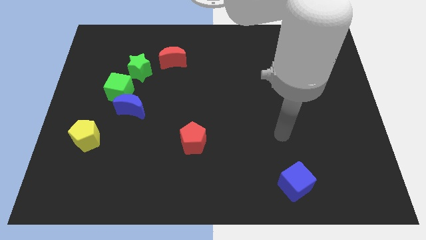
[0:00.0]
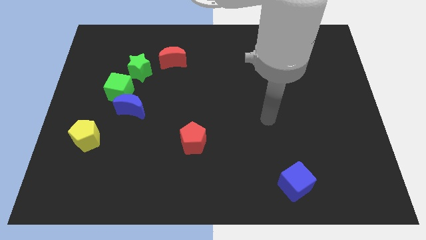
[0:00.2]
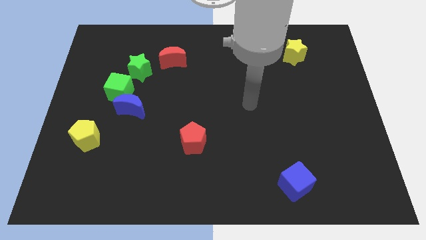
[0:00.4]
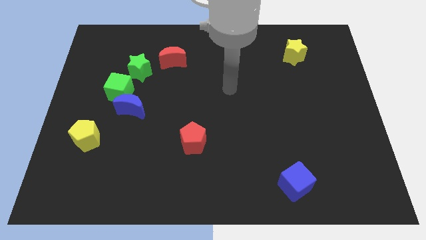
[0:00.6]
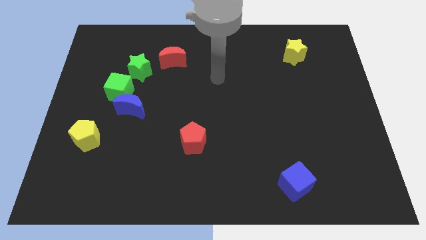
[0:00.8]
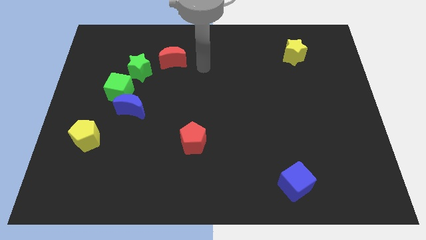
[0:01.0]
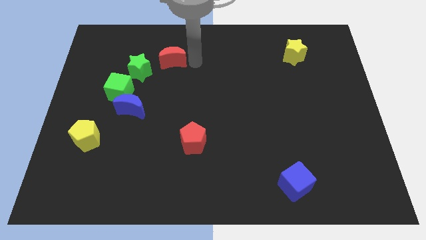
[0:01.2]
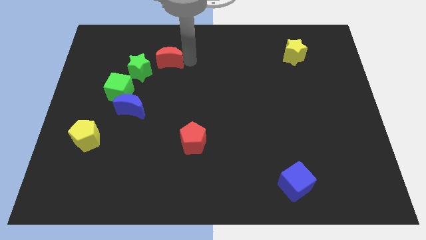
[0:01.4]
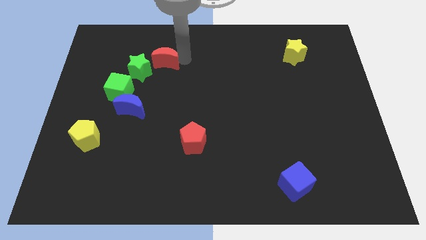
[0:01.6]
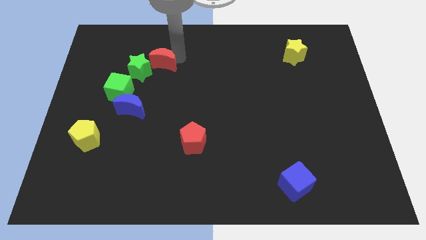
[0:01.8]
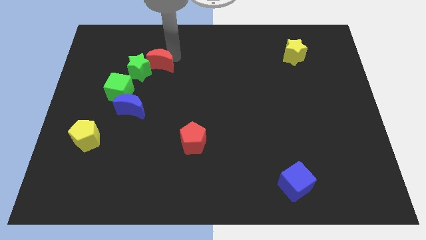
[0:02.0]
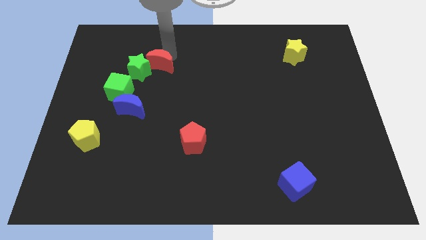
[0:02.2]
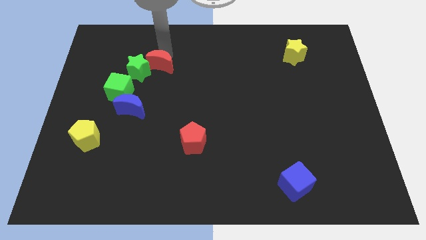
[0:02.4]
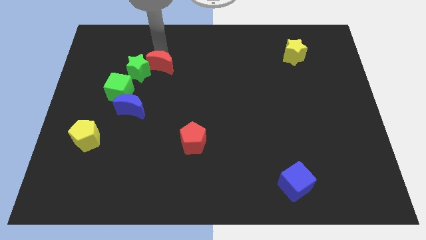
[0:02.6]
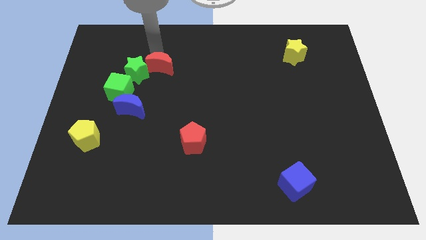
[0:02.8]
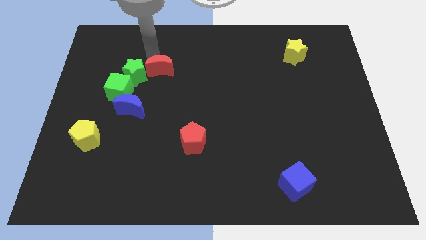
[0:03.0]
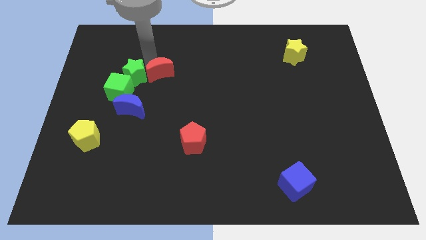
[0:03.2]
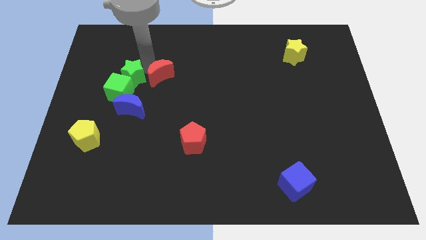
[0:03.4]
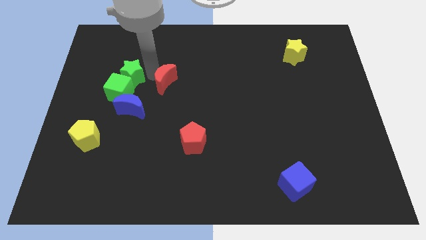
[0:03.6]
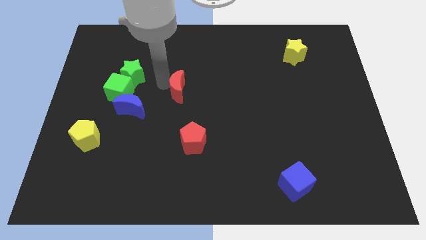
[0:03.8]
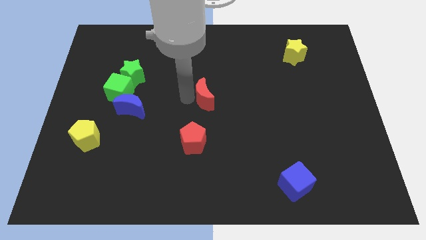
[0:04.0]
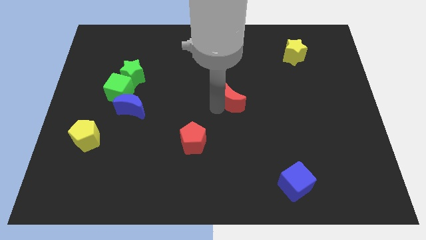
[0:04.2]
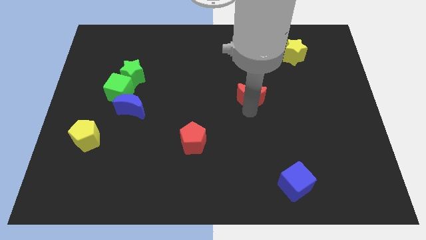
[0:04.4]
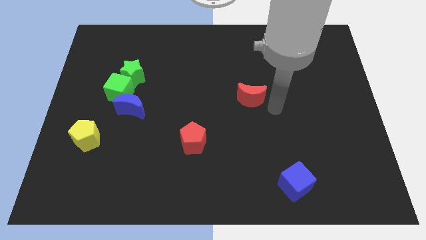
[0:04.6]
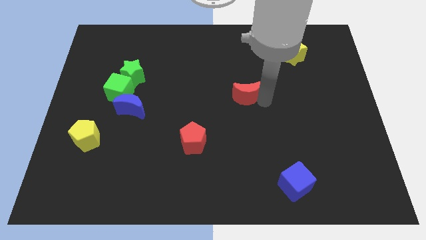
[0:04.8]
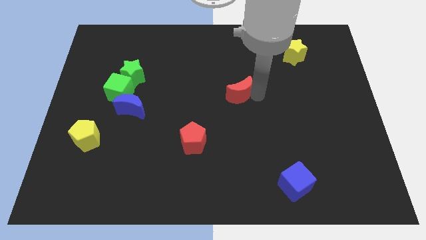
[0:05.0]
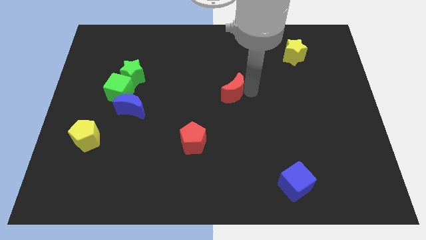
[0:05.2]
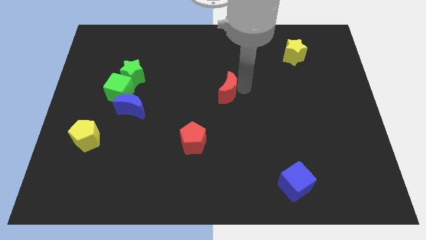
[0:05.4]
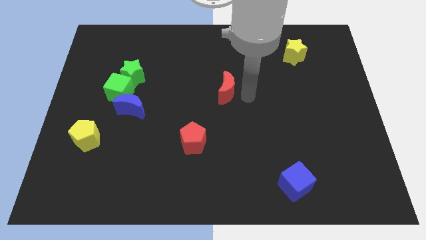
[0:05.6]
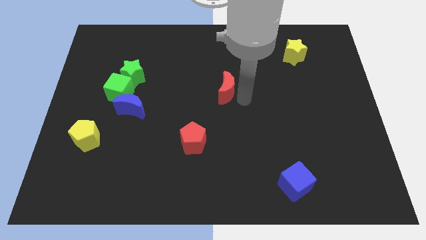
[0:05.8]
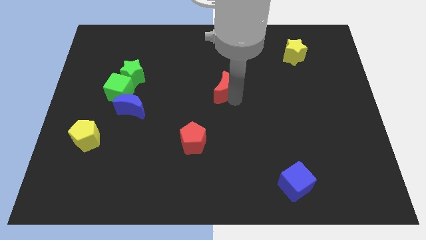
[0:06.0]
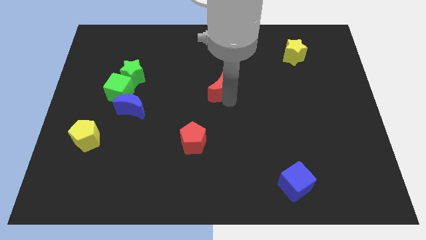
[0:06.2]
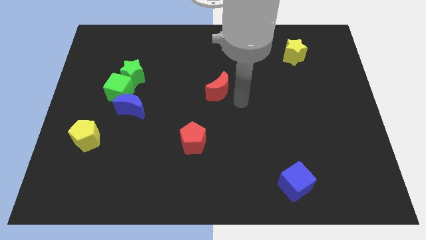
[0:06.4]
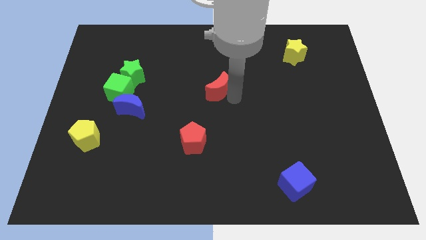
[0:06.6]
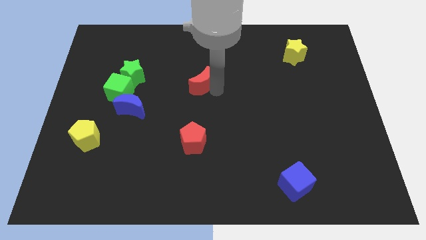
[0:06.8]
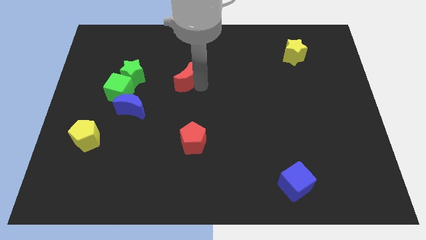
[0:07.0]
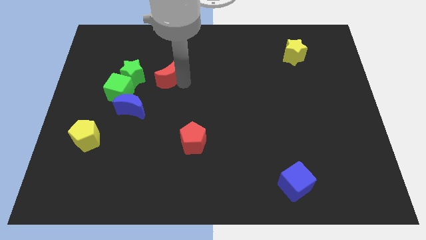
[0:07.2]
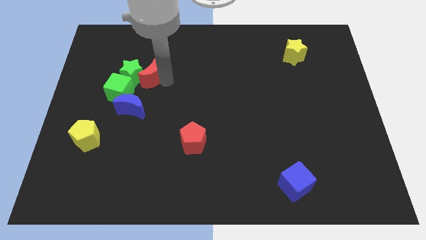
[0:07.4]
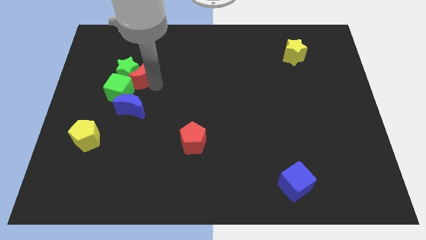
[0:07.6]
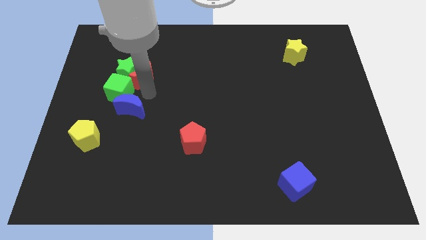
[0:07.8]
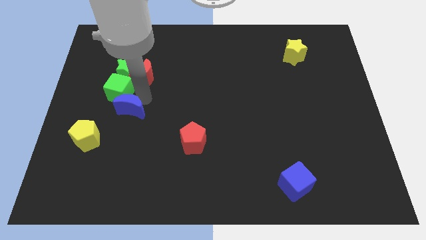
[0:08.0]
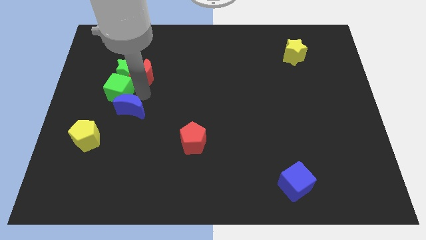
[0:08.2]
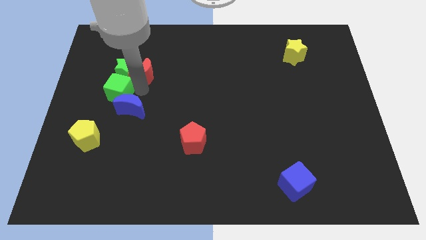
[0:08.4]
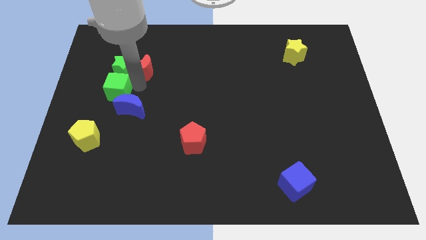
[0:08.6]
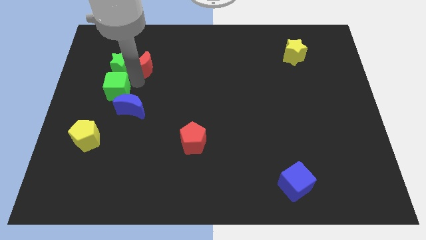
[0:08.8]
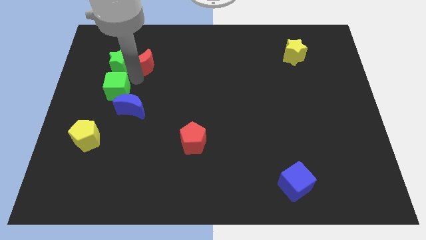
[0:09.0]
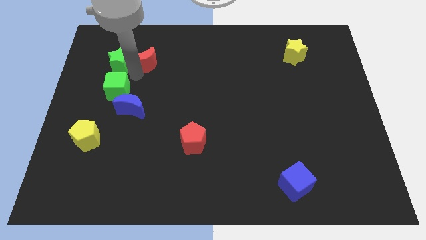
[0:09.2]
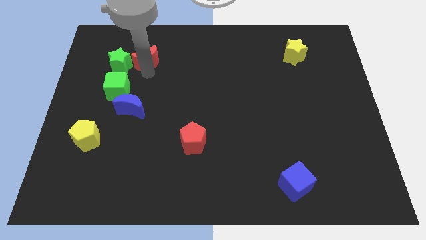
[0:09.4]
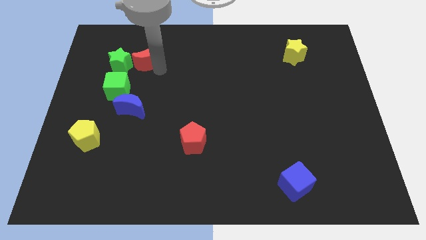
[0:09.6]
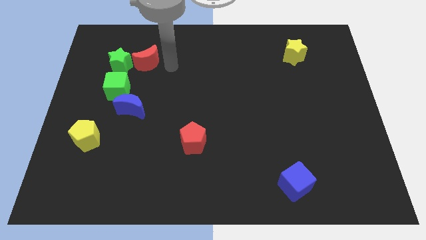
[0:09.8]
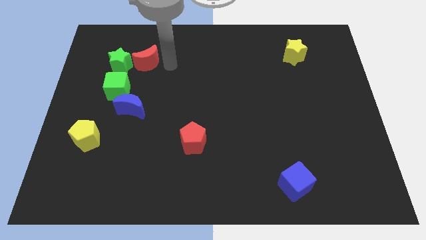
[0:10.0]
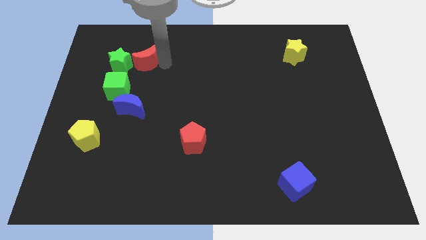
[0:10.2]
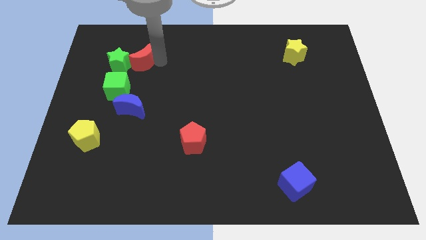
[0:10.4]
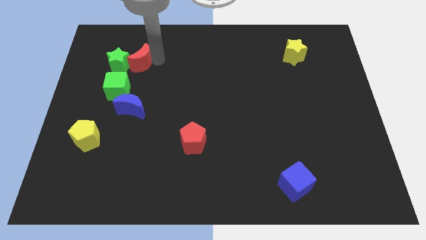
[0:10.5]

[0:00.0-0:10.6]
push the red moon to the top of the green cube

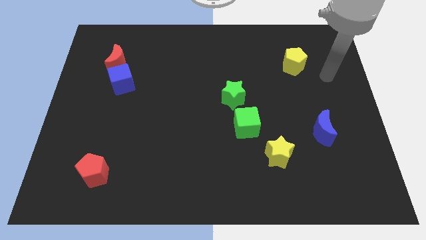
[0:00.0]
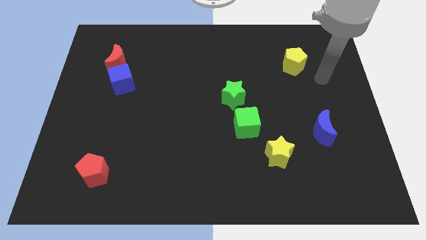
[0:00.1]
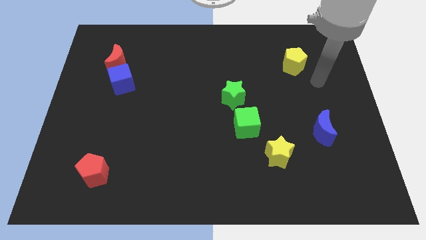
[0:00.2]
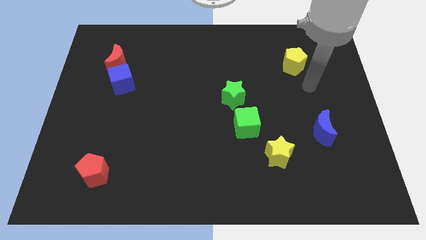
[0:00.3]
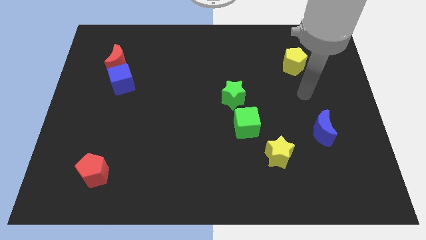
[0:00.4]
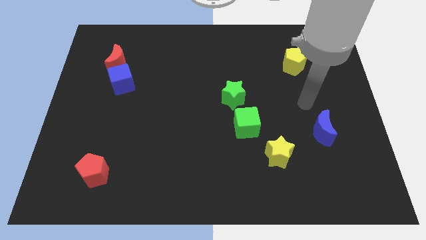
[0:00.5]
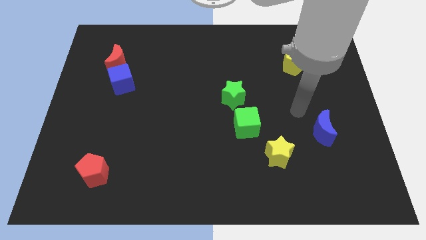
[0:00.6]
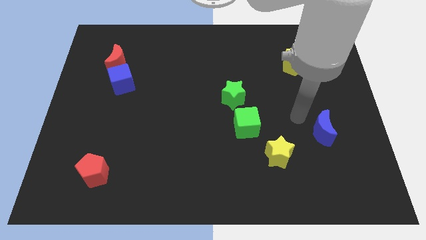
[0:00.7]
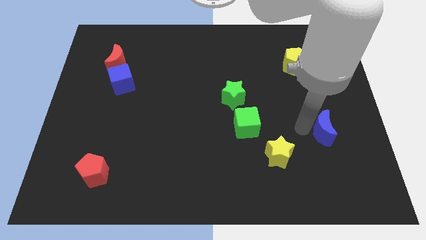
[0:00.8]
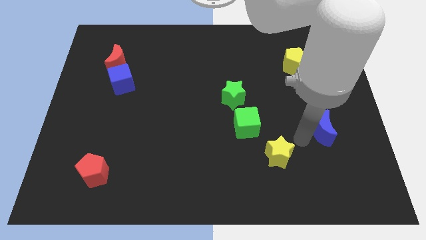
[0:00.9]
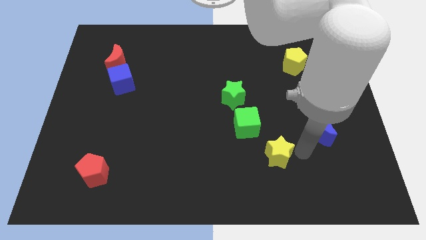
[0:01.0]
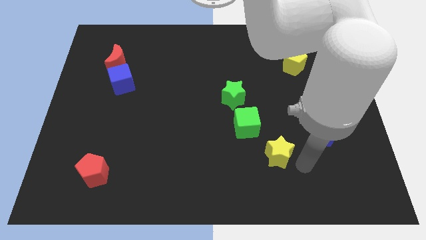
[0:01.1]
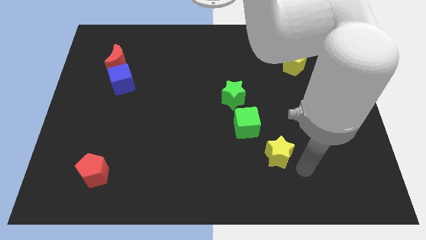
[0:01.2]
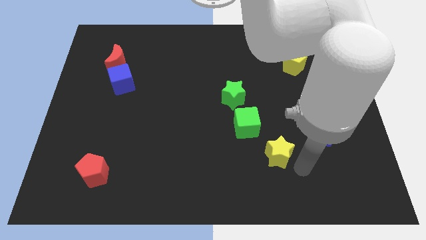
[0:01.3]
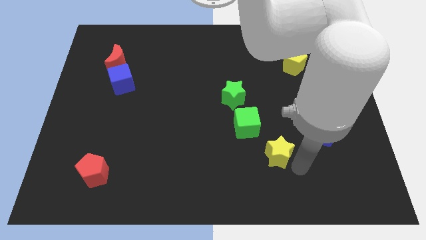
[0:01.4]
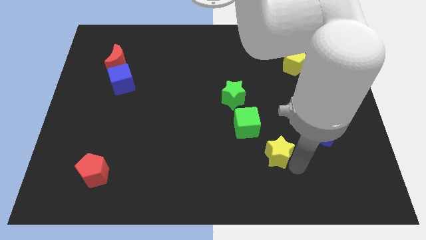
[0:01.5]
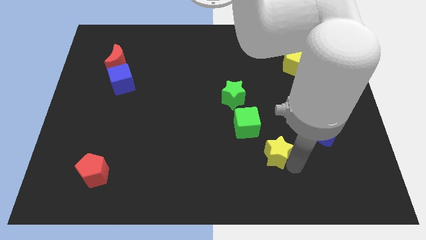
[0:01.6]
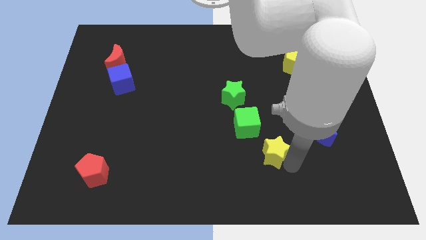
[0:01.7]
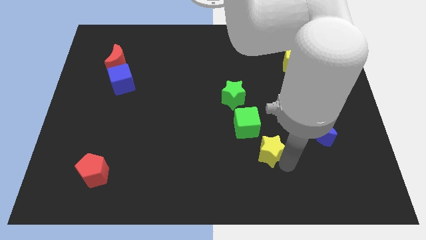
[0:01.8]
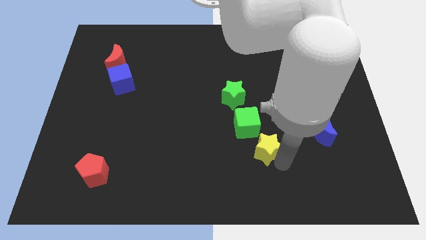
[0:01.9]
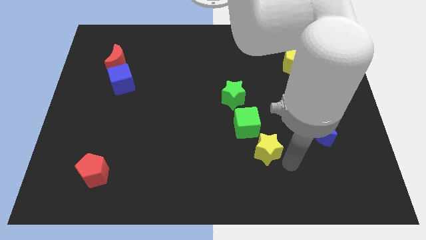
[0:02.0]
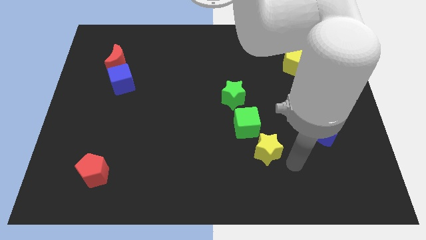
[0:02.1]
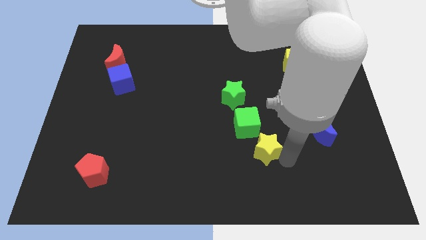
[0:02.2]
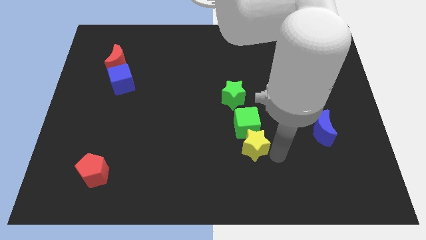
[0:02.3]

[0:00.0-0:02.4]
push the yellow star below the green star
